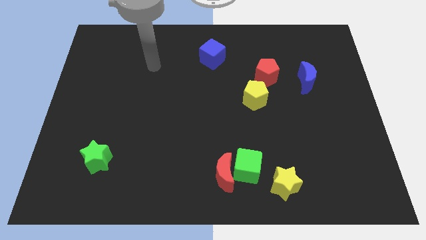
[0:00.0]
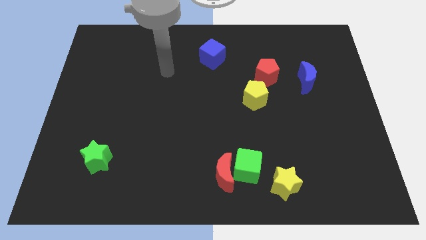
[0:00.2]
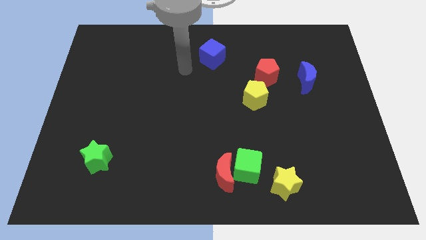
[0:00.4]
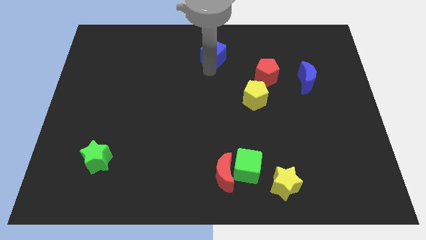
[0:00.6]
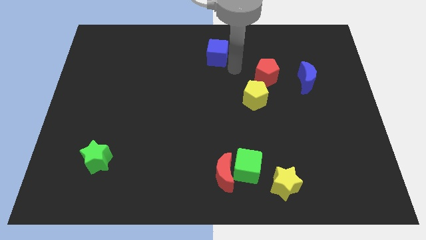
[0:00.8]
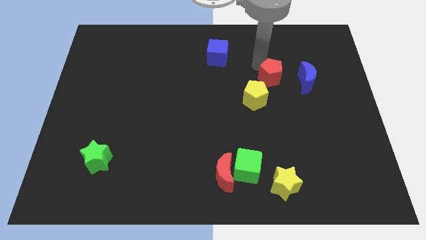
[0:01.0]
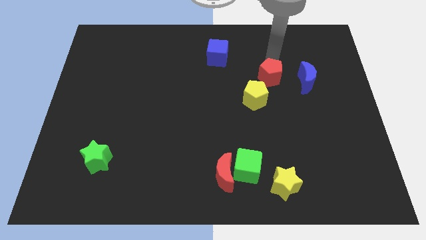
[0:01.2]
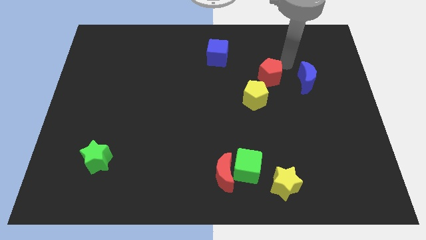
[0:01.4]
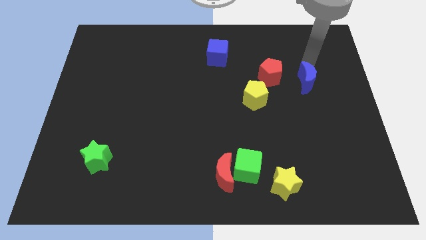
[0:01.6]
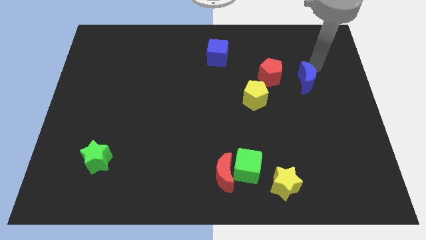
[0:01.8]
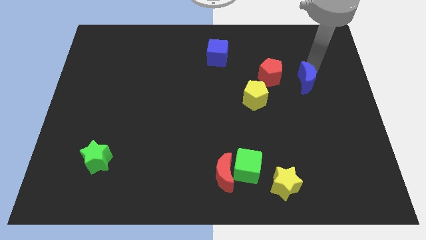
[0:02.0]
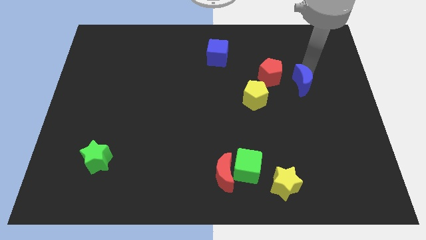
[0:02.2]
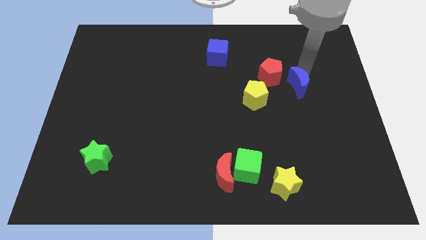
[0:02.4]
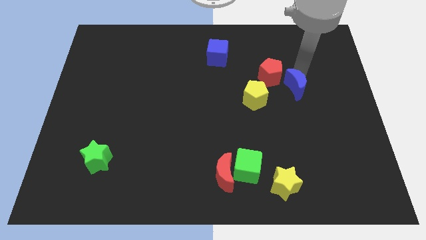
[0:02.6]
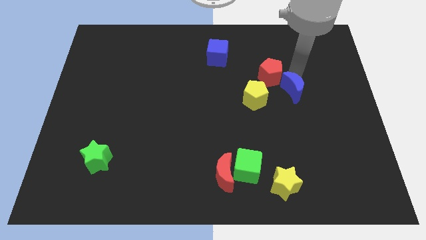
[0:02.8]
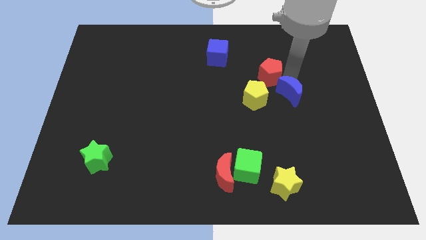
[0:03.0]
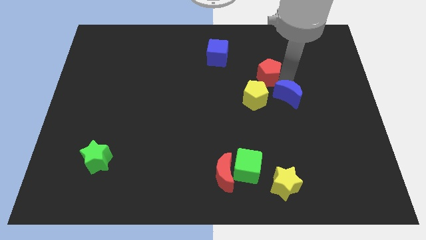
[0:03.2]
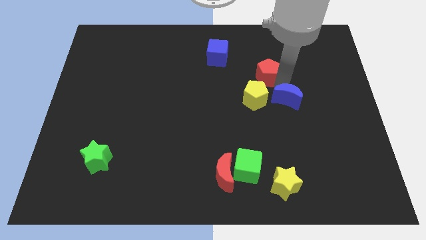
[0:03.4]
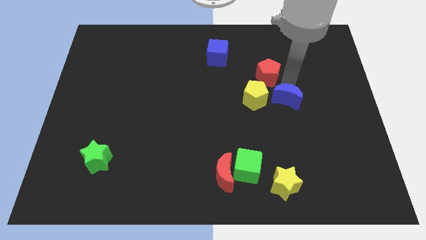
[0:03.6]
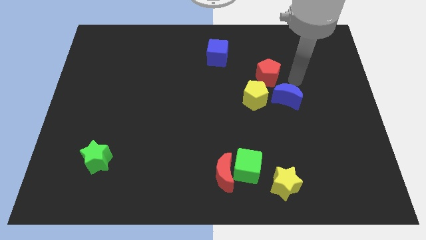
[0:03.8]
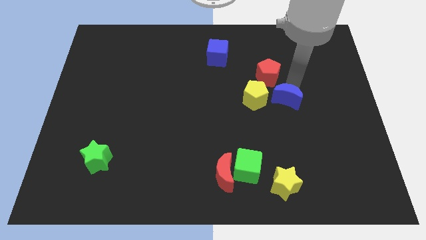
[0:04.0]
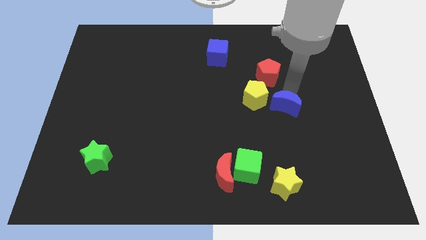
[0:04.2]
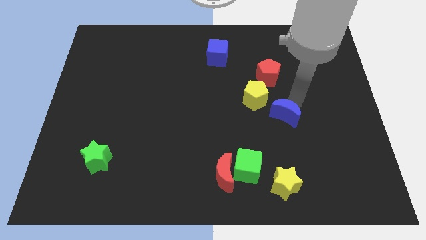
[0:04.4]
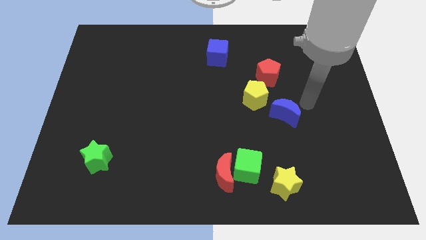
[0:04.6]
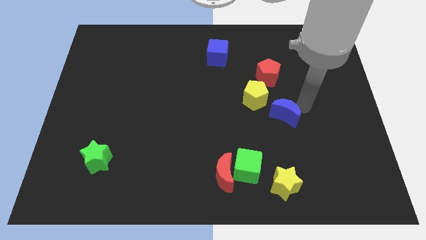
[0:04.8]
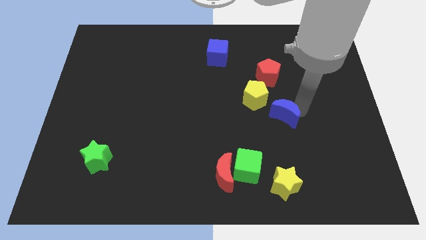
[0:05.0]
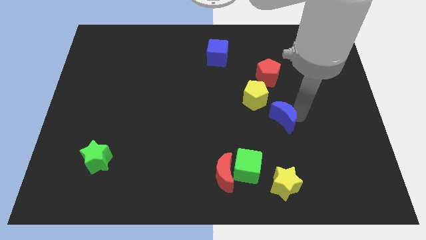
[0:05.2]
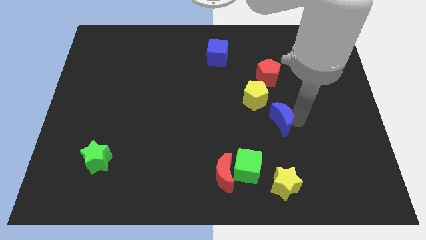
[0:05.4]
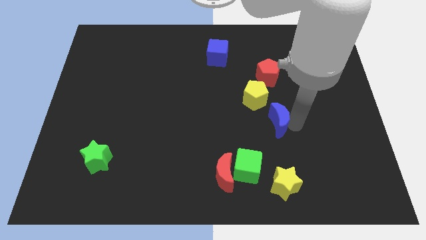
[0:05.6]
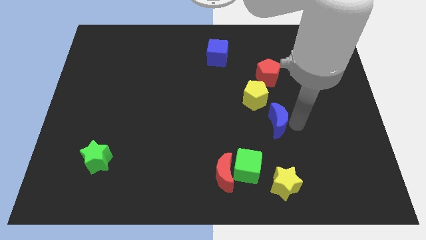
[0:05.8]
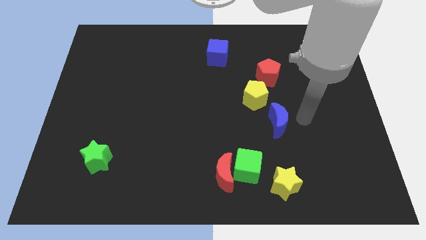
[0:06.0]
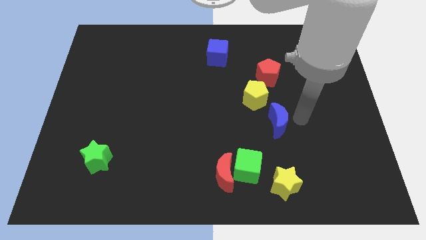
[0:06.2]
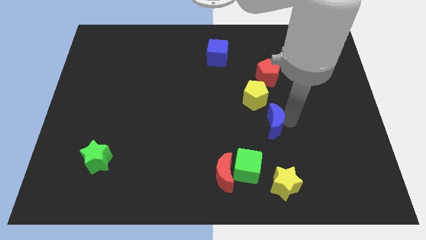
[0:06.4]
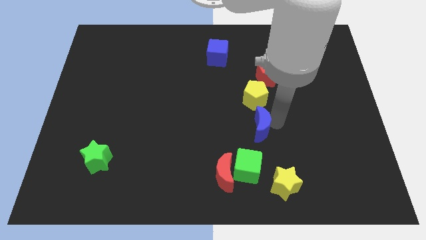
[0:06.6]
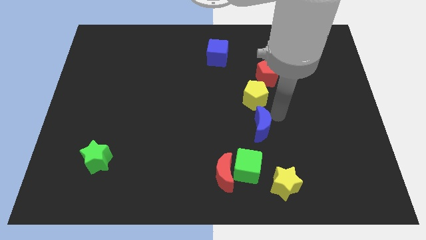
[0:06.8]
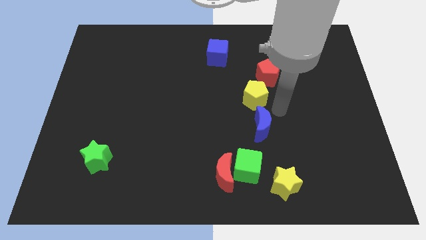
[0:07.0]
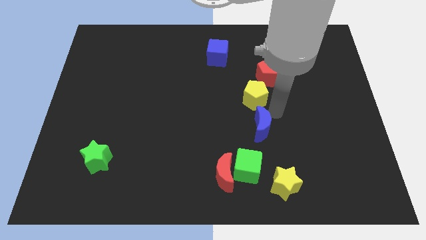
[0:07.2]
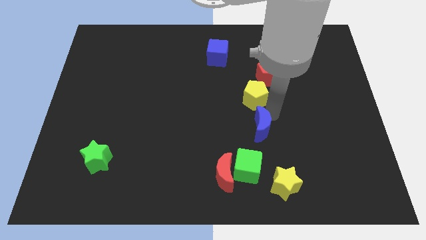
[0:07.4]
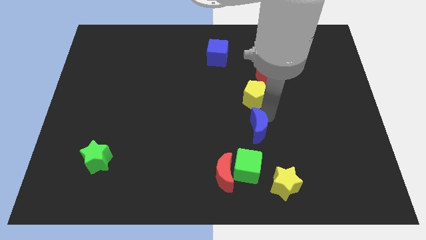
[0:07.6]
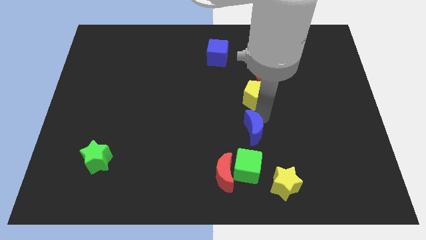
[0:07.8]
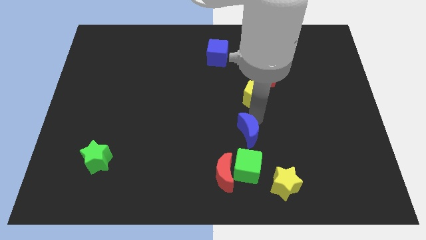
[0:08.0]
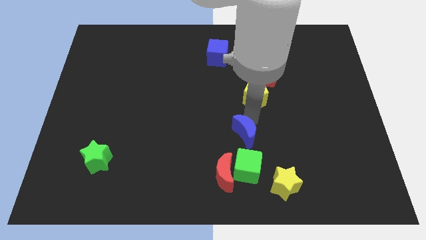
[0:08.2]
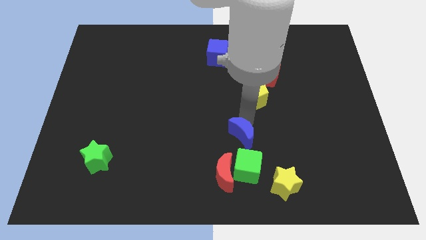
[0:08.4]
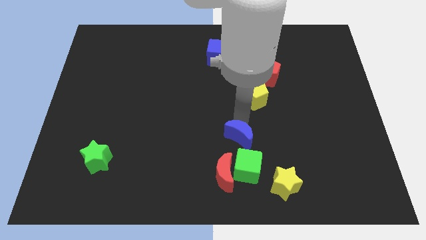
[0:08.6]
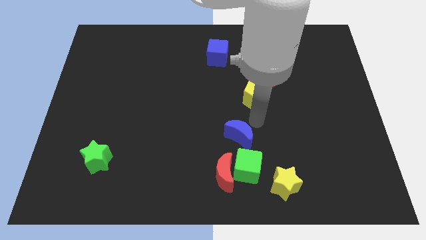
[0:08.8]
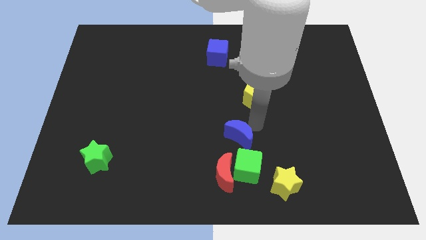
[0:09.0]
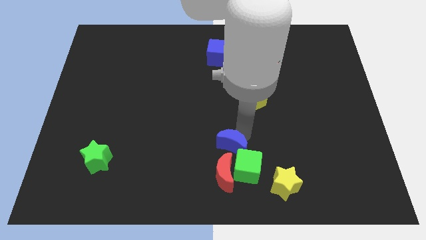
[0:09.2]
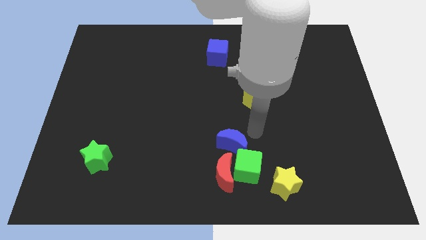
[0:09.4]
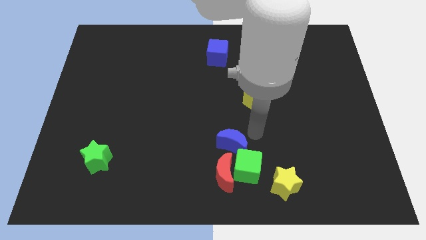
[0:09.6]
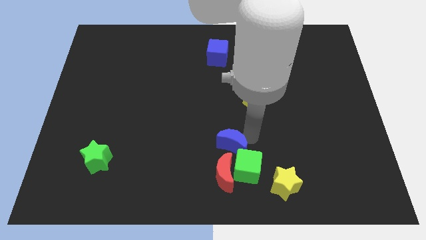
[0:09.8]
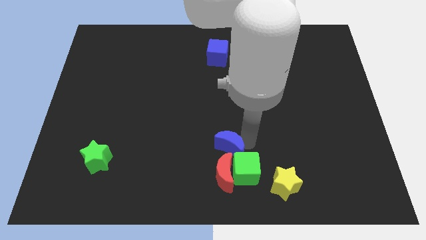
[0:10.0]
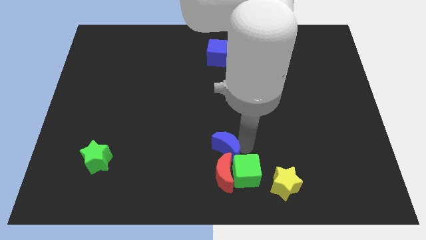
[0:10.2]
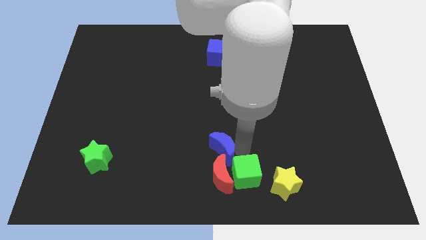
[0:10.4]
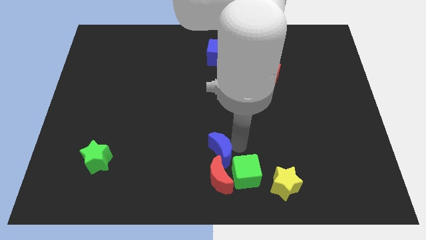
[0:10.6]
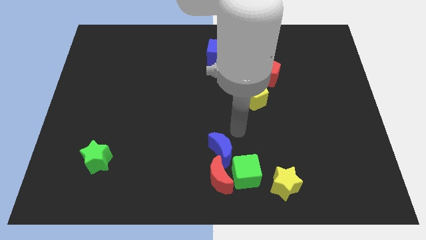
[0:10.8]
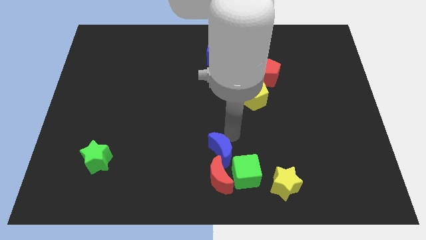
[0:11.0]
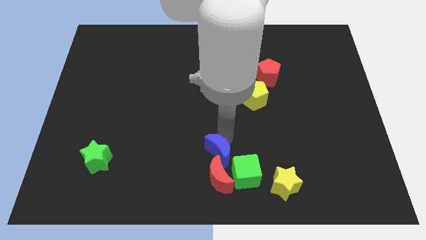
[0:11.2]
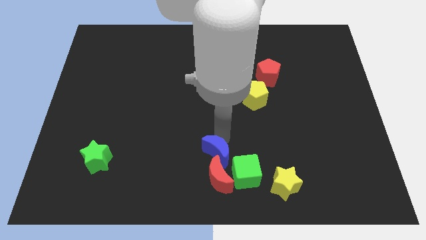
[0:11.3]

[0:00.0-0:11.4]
slide the blue moon to the bottom side
